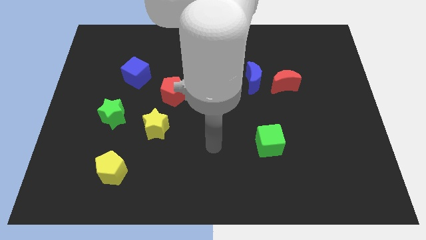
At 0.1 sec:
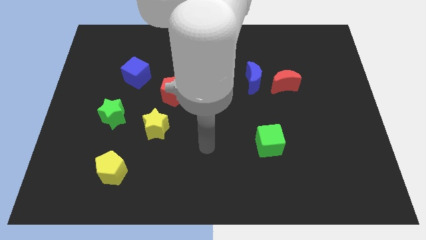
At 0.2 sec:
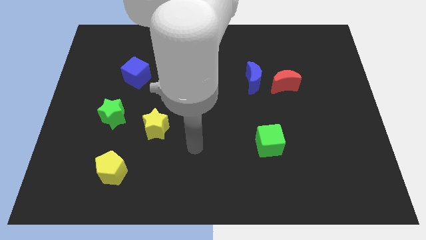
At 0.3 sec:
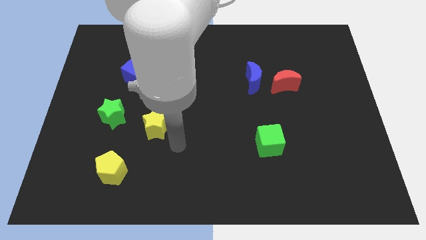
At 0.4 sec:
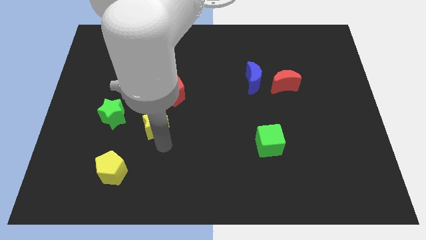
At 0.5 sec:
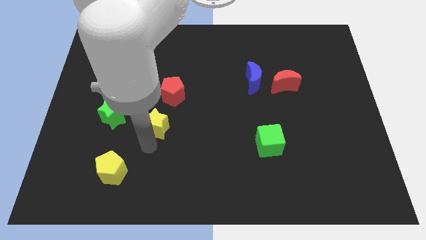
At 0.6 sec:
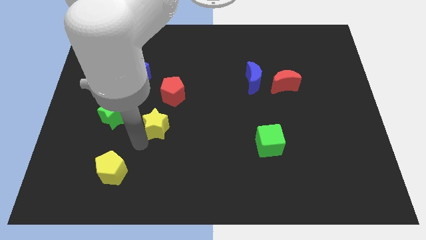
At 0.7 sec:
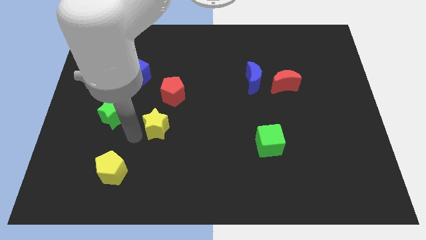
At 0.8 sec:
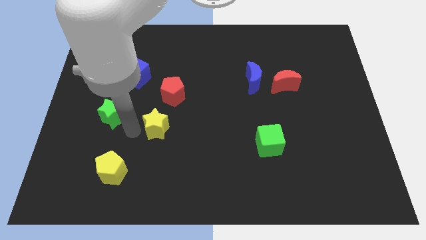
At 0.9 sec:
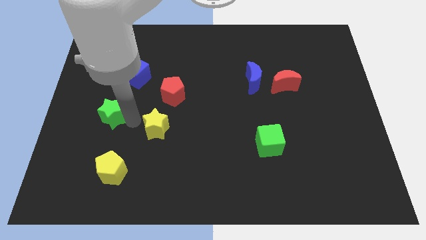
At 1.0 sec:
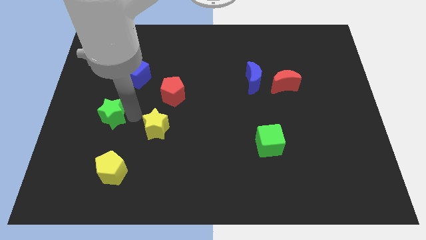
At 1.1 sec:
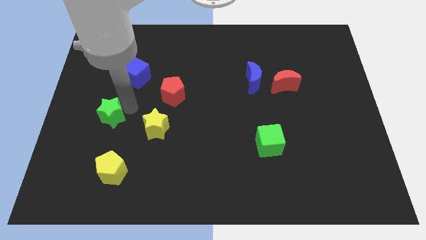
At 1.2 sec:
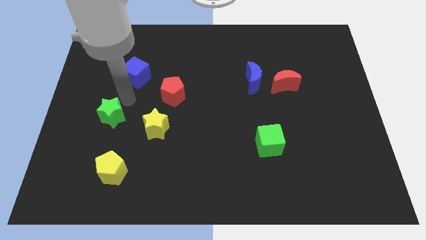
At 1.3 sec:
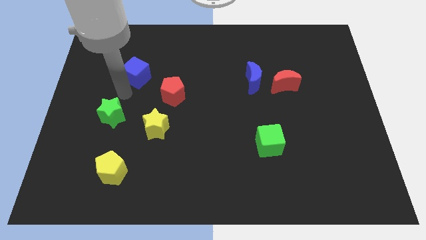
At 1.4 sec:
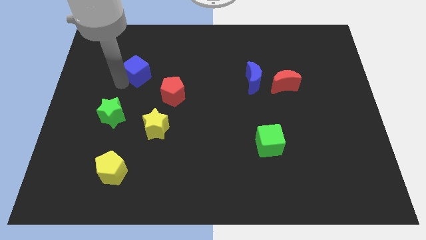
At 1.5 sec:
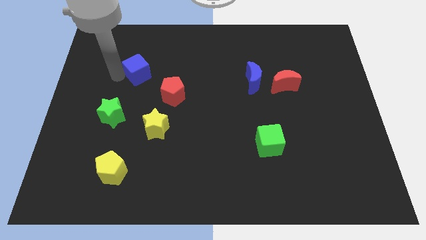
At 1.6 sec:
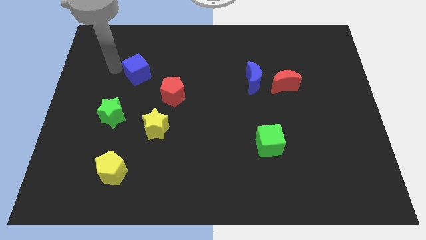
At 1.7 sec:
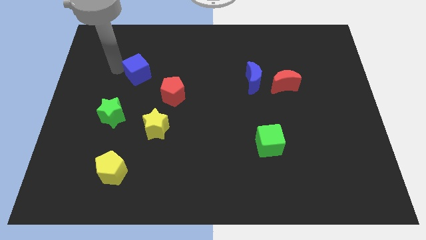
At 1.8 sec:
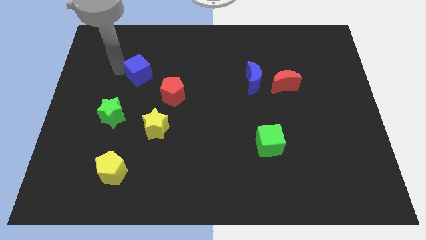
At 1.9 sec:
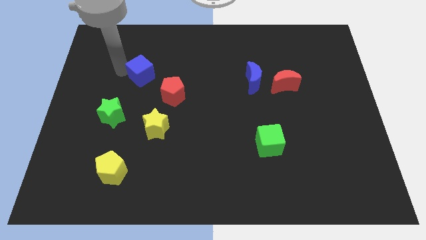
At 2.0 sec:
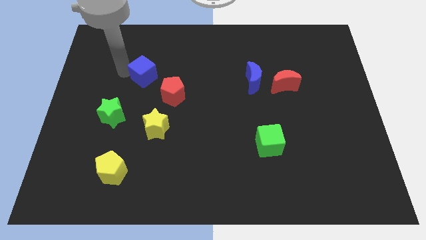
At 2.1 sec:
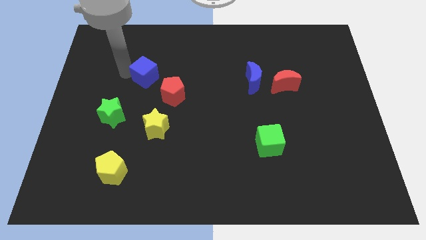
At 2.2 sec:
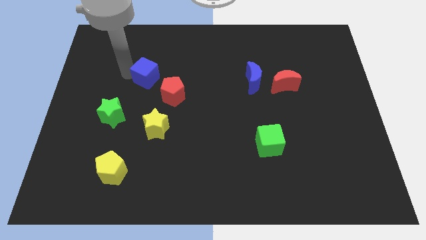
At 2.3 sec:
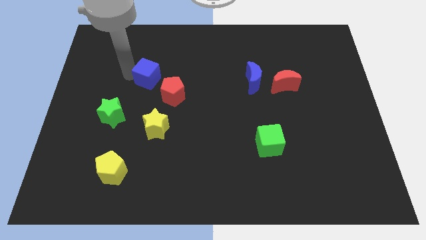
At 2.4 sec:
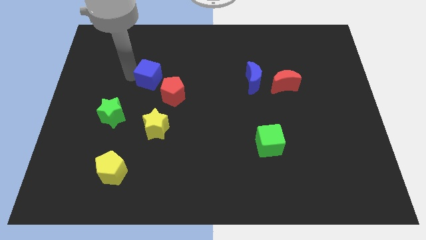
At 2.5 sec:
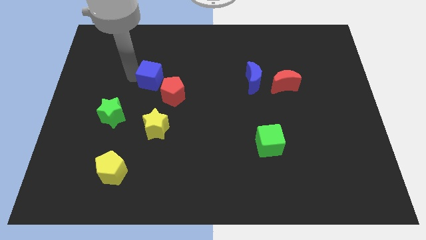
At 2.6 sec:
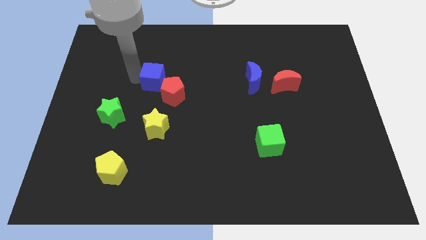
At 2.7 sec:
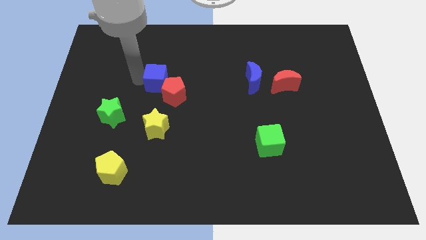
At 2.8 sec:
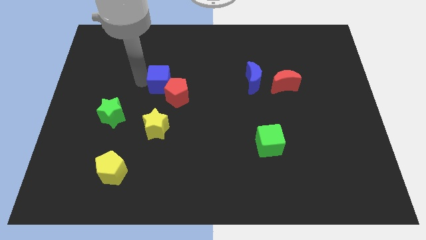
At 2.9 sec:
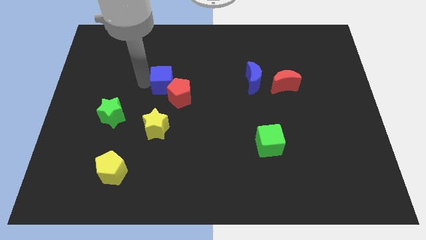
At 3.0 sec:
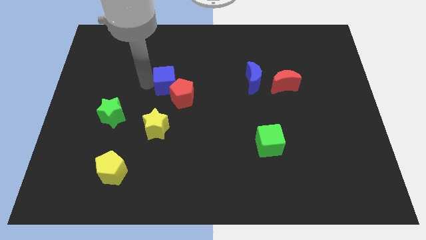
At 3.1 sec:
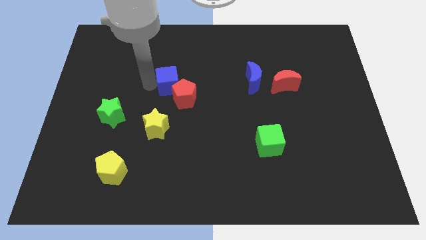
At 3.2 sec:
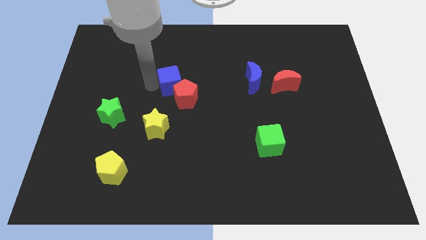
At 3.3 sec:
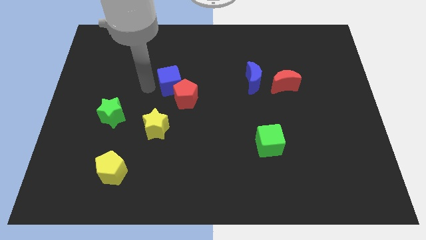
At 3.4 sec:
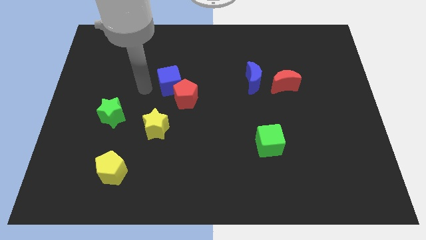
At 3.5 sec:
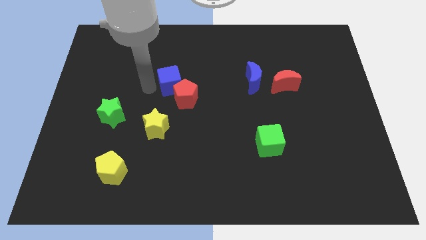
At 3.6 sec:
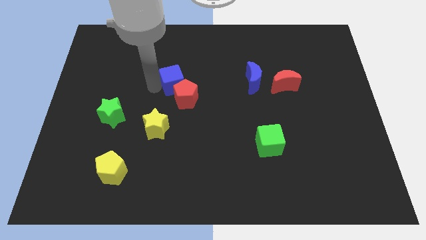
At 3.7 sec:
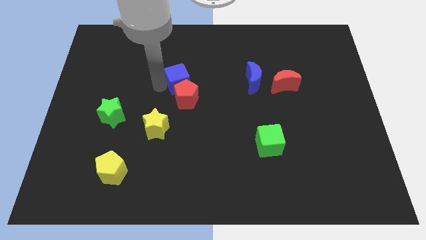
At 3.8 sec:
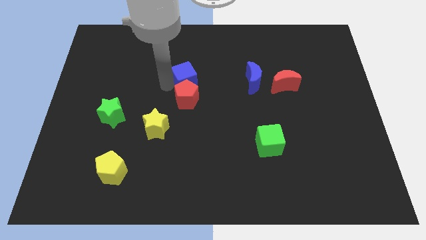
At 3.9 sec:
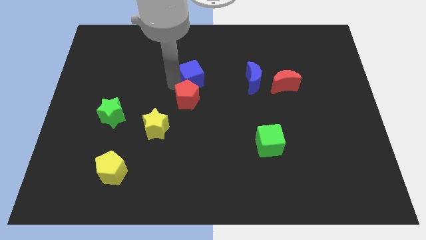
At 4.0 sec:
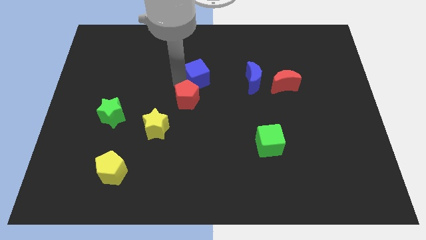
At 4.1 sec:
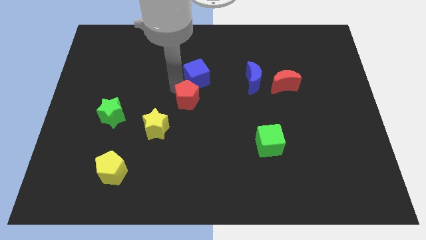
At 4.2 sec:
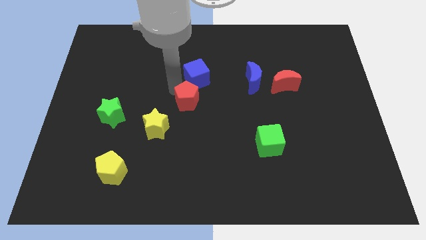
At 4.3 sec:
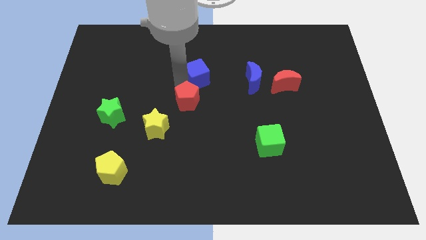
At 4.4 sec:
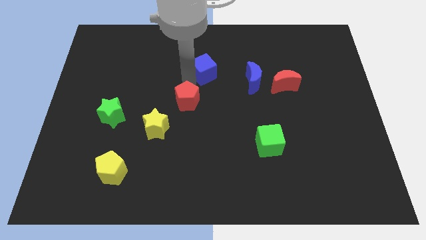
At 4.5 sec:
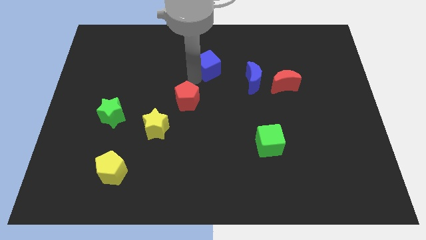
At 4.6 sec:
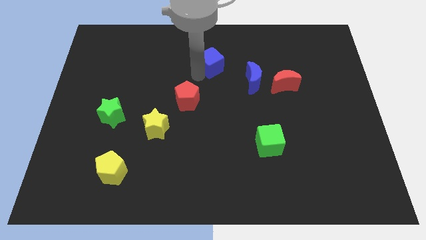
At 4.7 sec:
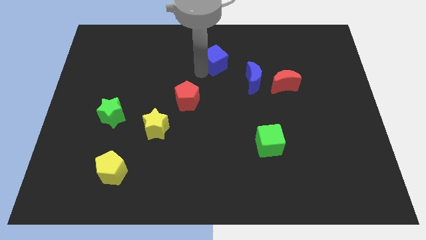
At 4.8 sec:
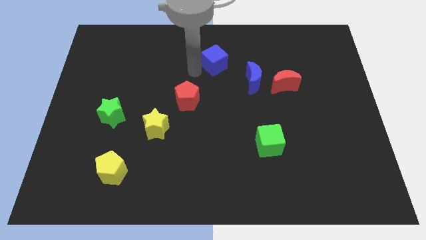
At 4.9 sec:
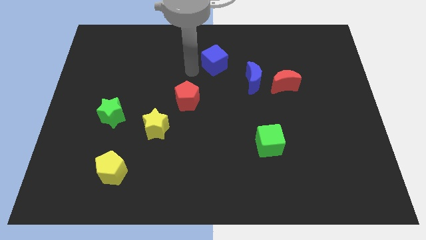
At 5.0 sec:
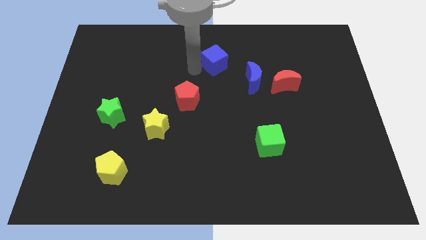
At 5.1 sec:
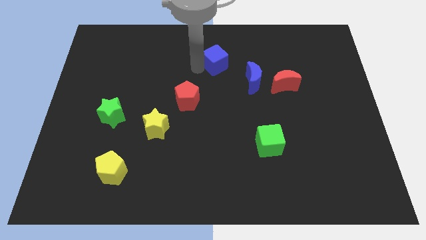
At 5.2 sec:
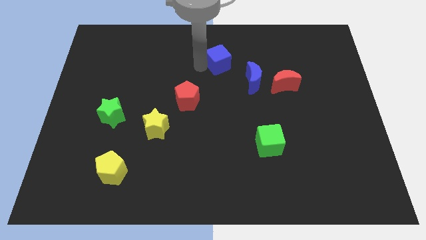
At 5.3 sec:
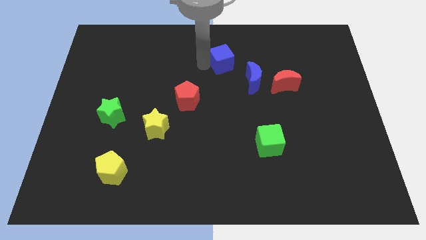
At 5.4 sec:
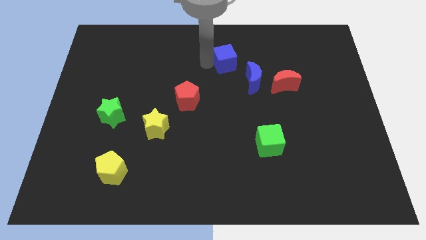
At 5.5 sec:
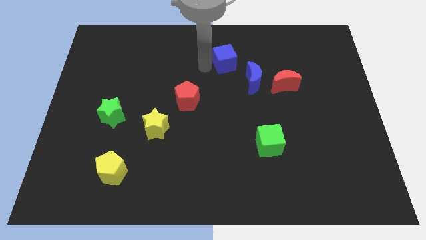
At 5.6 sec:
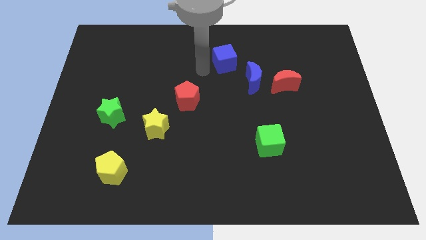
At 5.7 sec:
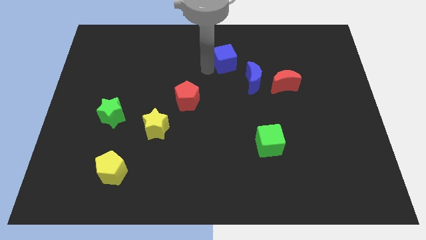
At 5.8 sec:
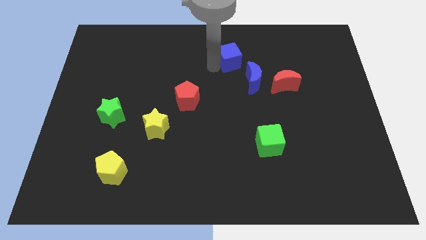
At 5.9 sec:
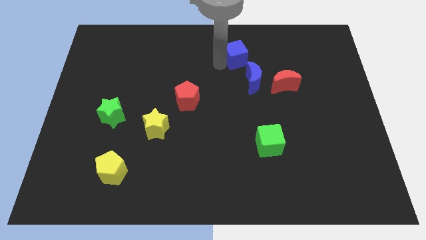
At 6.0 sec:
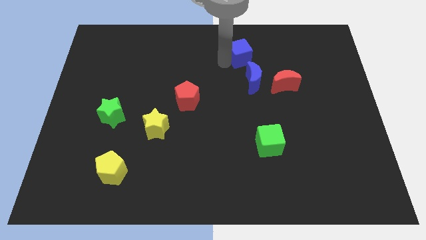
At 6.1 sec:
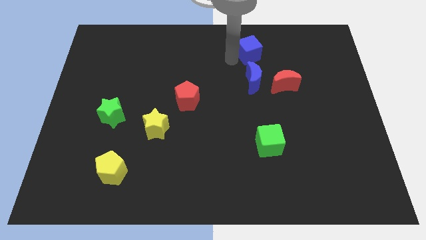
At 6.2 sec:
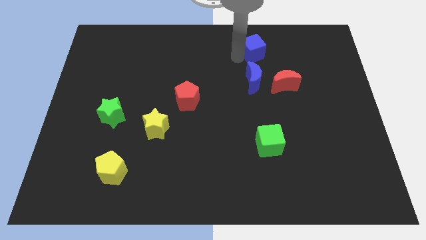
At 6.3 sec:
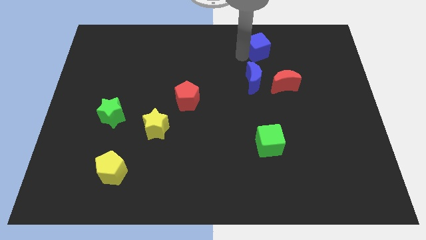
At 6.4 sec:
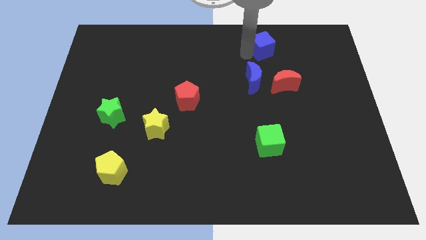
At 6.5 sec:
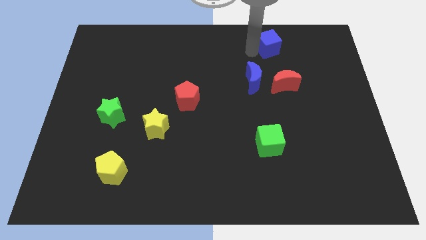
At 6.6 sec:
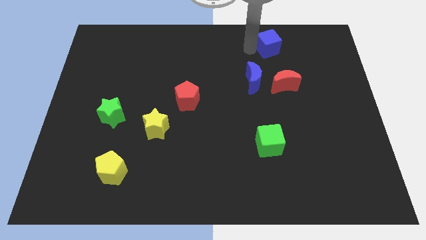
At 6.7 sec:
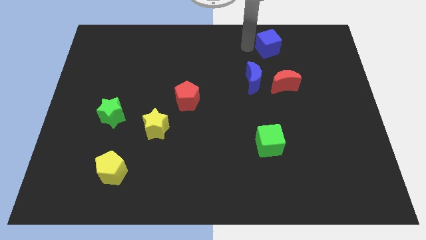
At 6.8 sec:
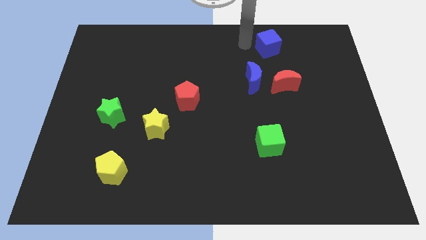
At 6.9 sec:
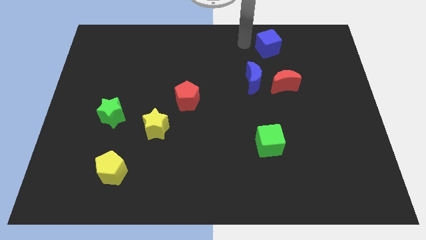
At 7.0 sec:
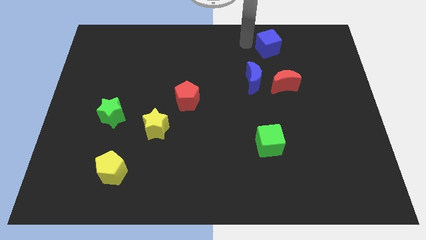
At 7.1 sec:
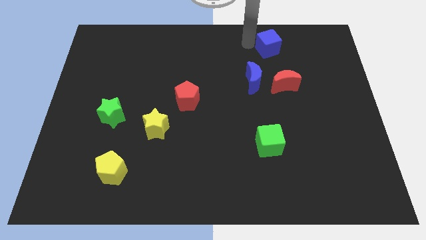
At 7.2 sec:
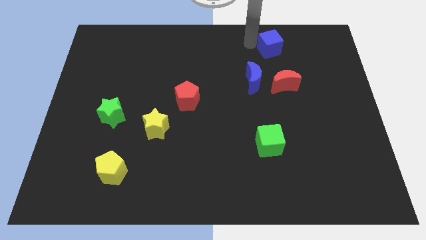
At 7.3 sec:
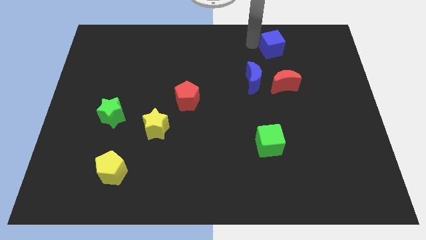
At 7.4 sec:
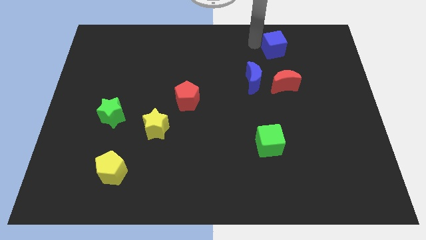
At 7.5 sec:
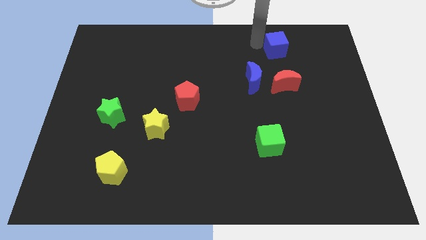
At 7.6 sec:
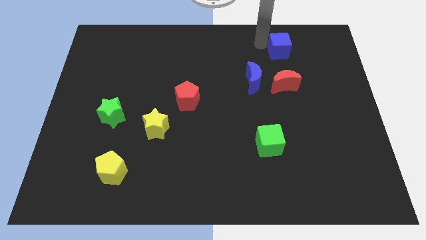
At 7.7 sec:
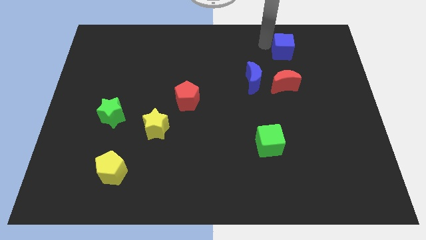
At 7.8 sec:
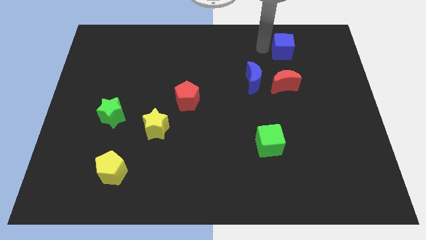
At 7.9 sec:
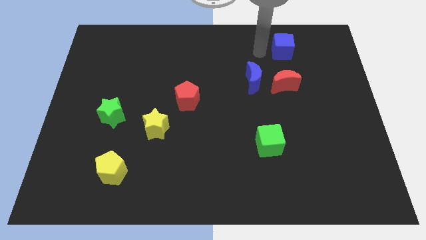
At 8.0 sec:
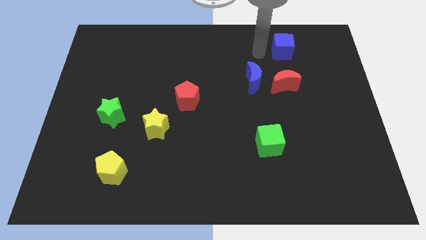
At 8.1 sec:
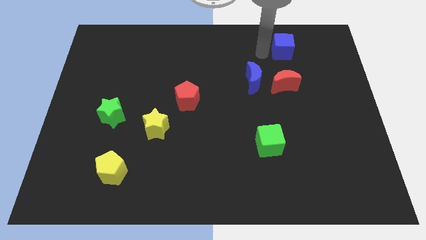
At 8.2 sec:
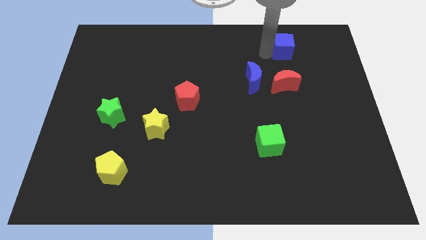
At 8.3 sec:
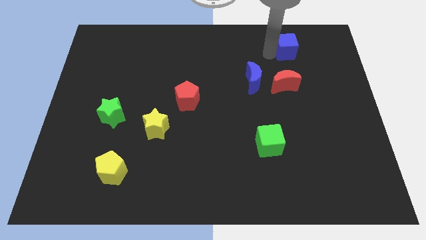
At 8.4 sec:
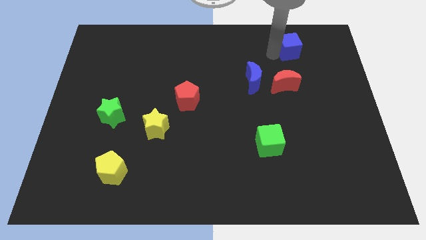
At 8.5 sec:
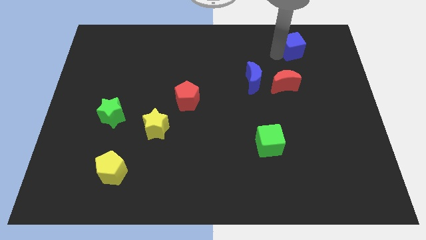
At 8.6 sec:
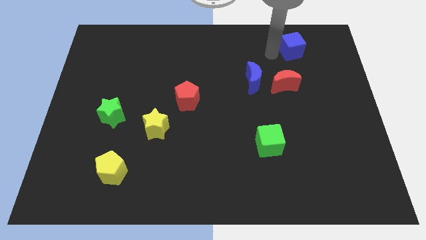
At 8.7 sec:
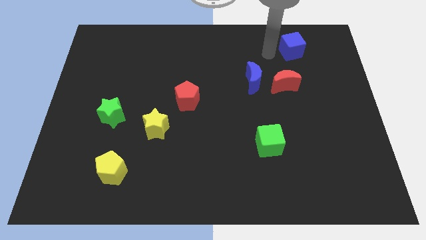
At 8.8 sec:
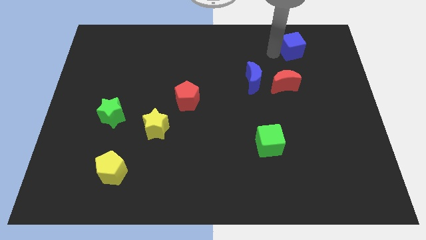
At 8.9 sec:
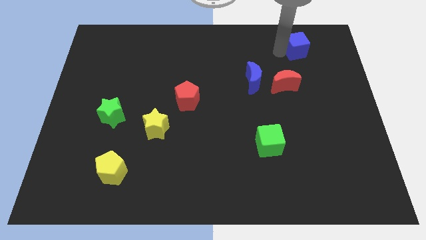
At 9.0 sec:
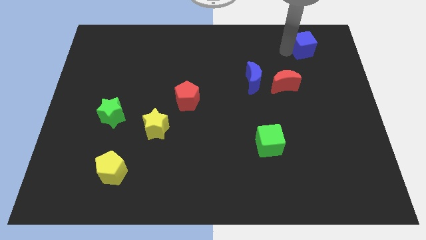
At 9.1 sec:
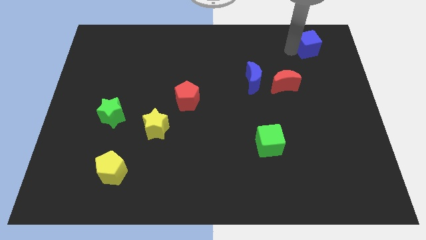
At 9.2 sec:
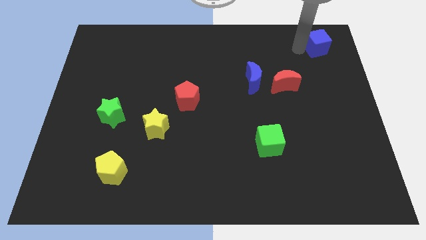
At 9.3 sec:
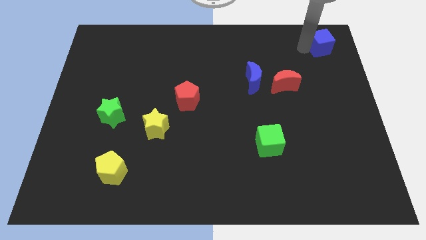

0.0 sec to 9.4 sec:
move the blue cube to the upper right corner
